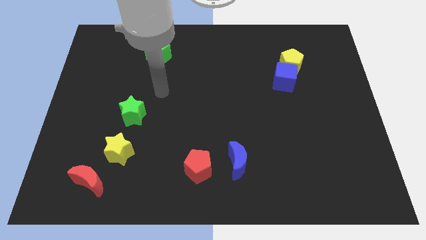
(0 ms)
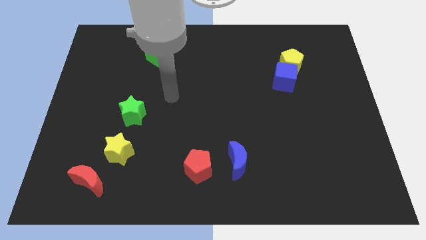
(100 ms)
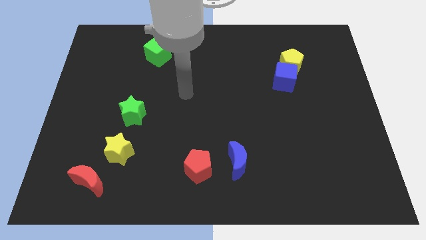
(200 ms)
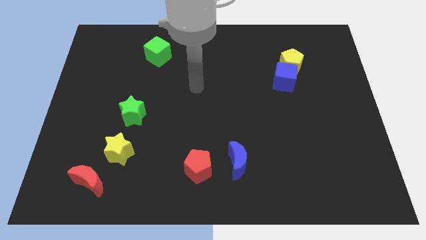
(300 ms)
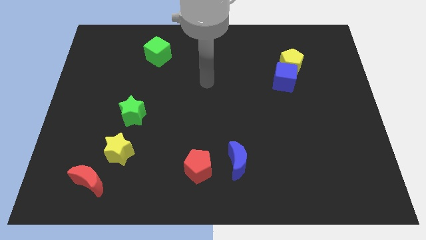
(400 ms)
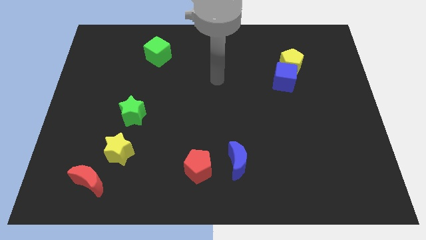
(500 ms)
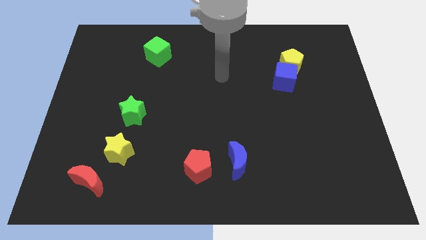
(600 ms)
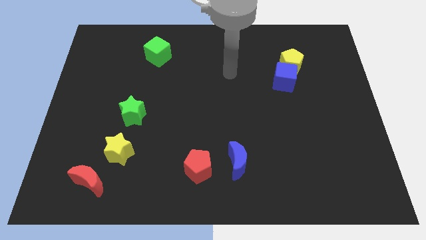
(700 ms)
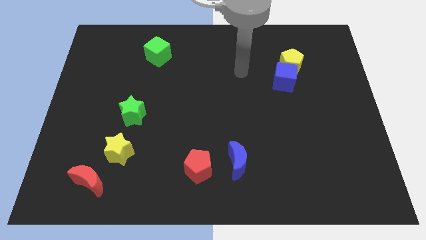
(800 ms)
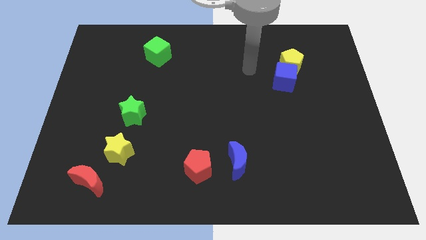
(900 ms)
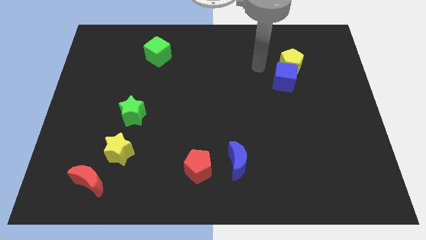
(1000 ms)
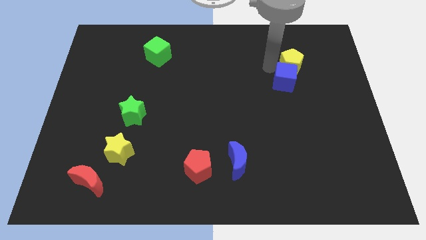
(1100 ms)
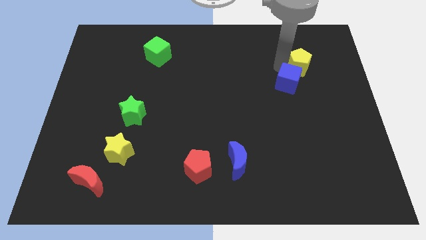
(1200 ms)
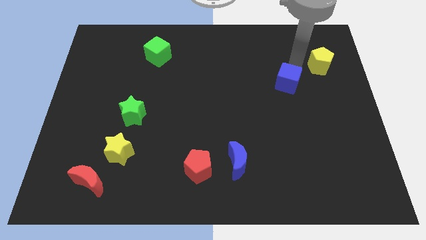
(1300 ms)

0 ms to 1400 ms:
move the blue cube away from the yellow pentagon

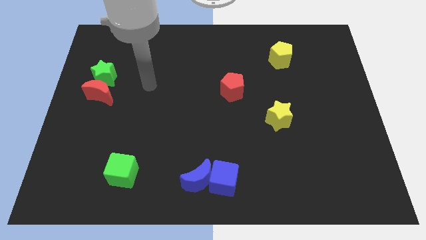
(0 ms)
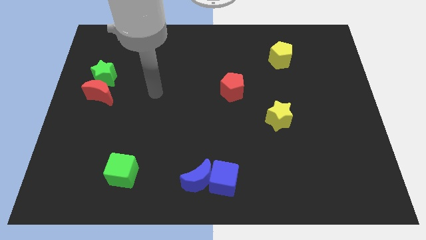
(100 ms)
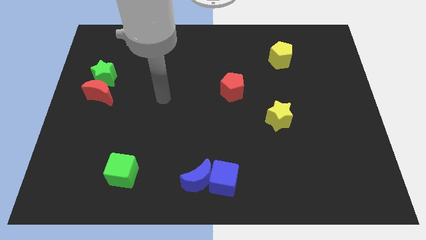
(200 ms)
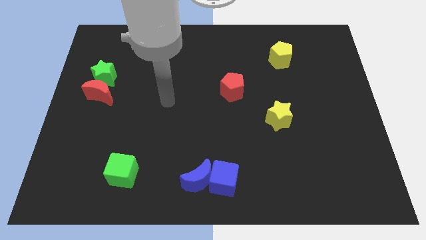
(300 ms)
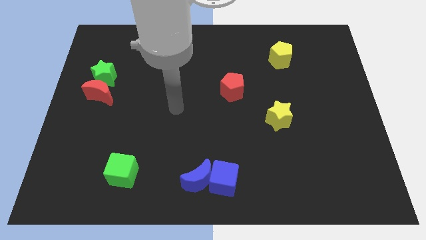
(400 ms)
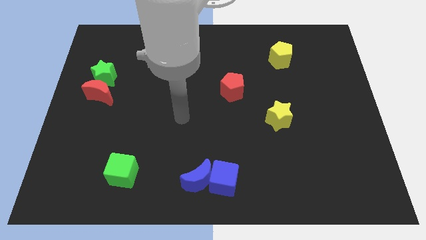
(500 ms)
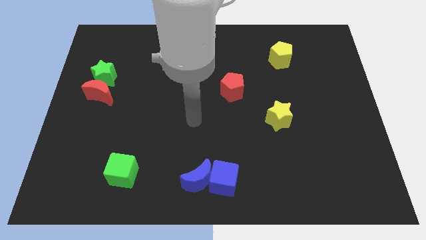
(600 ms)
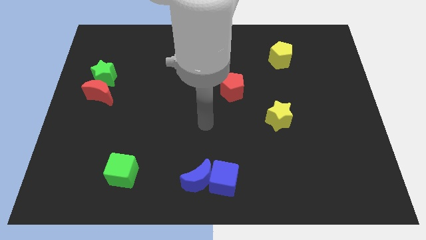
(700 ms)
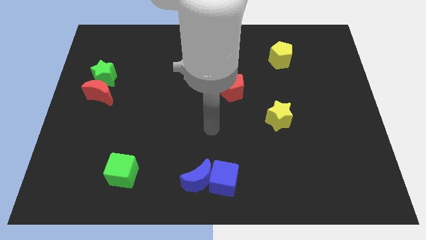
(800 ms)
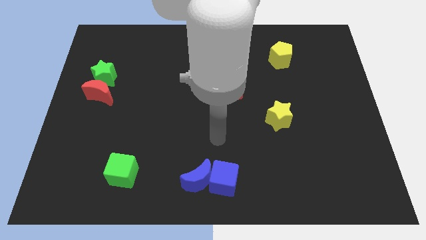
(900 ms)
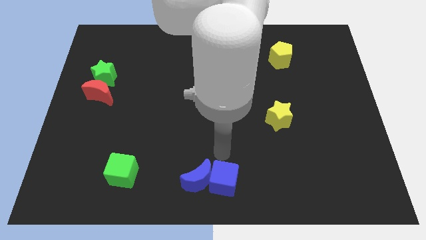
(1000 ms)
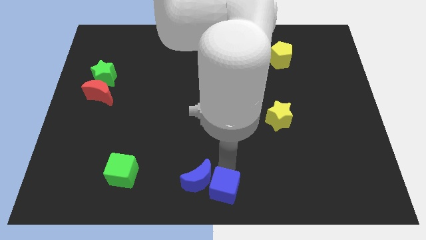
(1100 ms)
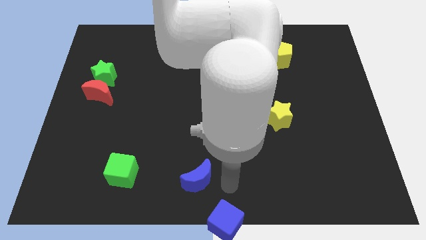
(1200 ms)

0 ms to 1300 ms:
move the blue moon away from the blue cube

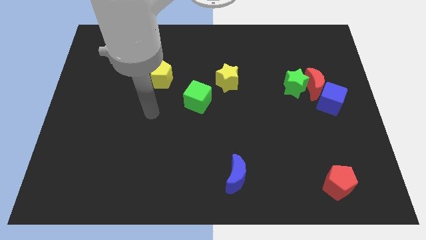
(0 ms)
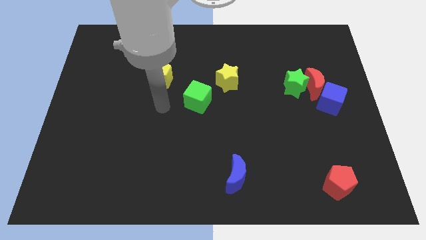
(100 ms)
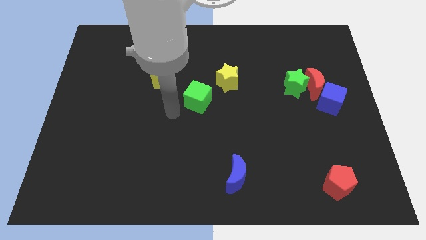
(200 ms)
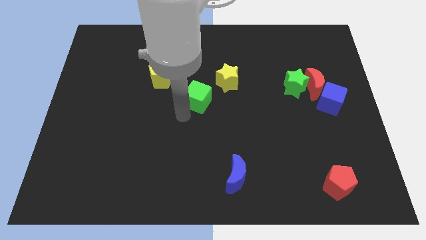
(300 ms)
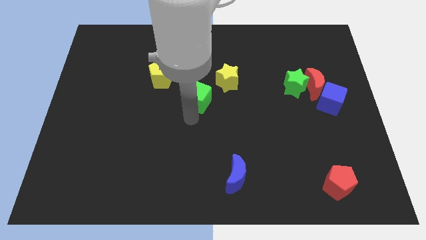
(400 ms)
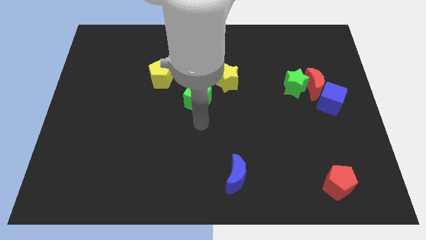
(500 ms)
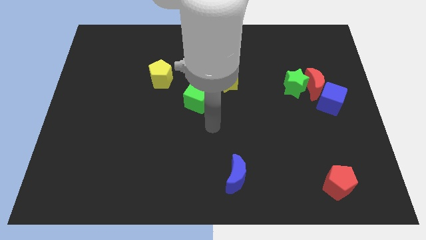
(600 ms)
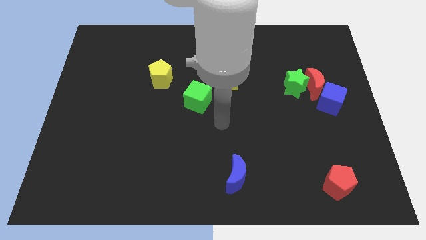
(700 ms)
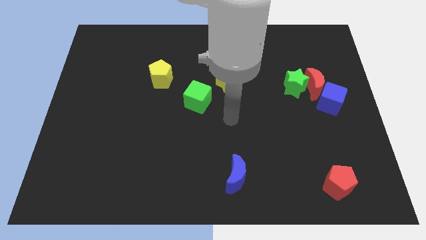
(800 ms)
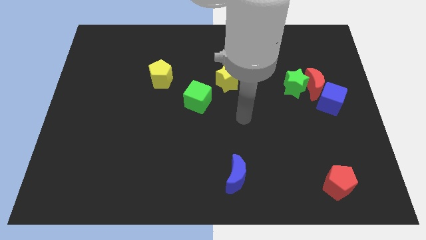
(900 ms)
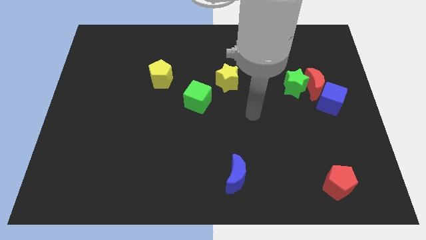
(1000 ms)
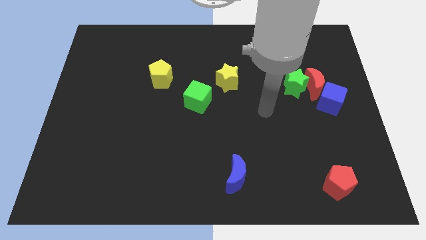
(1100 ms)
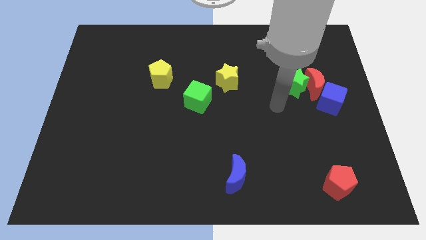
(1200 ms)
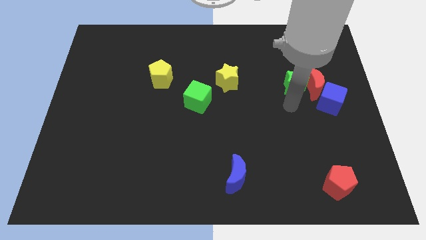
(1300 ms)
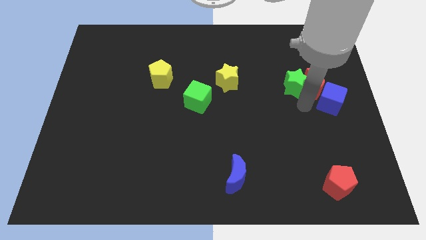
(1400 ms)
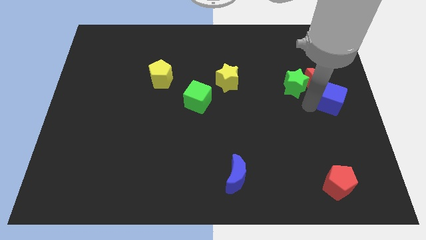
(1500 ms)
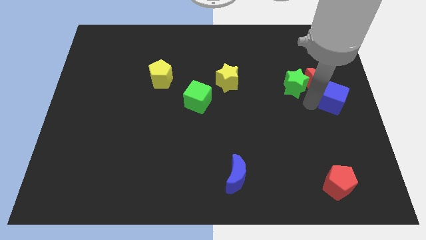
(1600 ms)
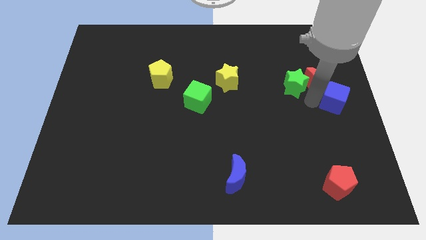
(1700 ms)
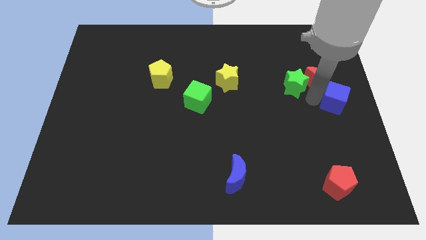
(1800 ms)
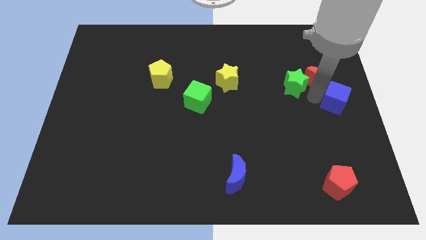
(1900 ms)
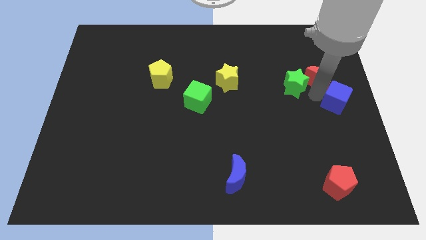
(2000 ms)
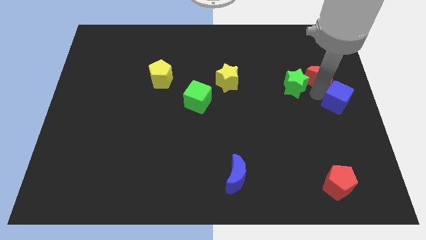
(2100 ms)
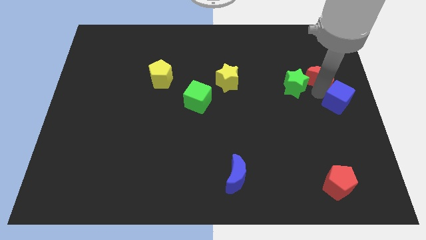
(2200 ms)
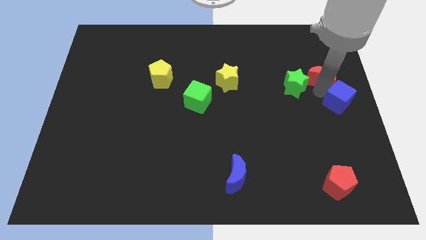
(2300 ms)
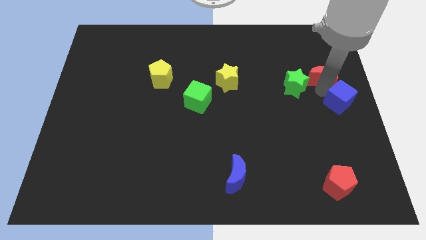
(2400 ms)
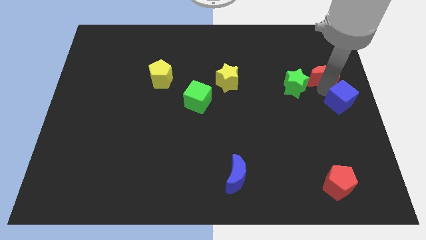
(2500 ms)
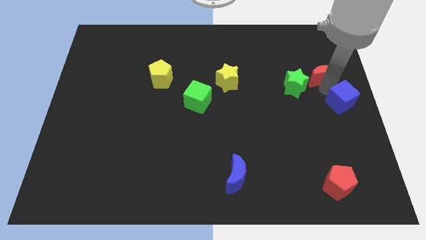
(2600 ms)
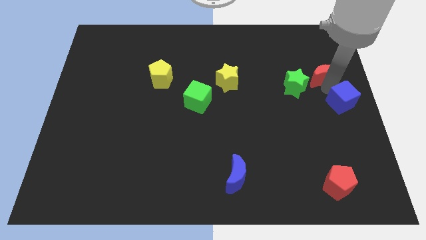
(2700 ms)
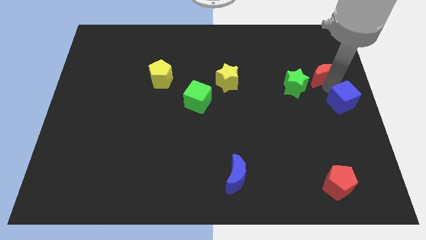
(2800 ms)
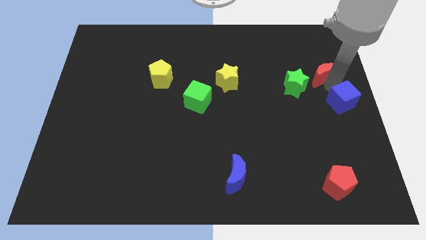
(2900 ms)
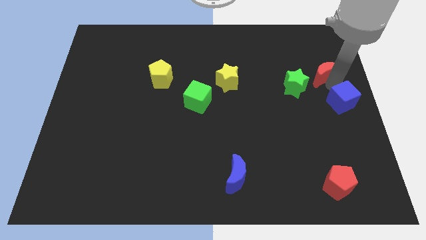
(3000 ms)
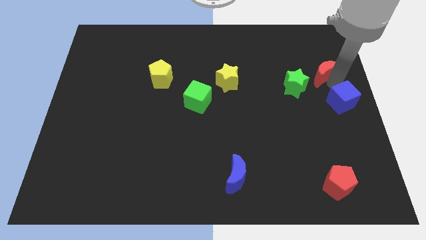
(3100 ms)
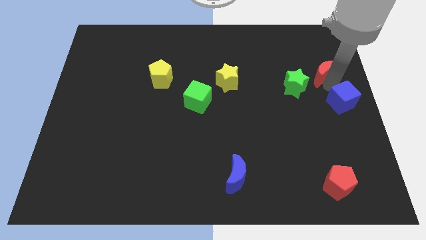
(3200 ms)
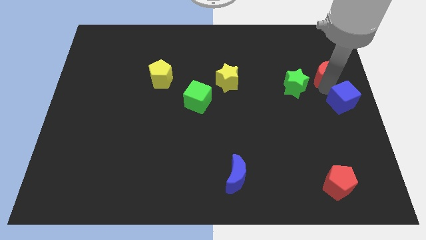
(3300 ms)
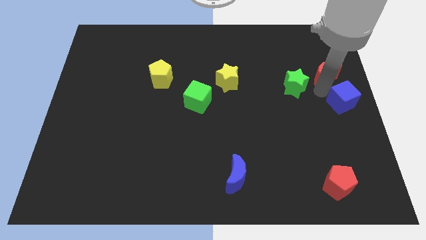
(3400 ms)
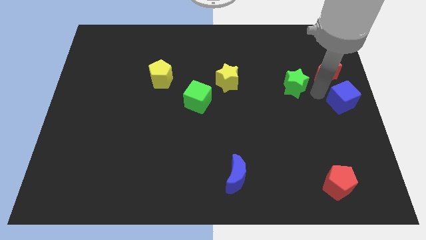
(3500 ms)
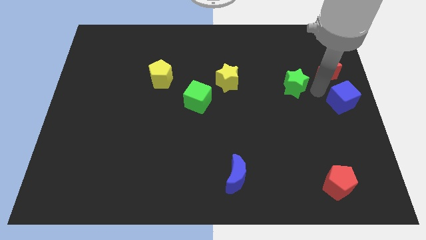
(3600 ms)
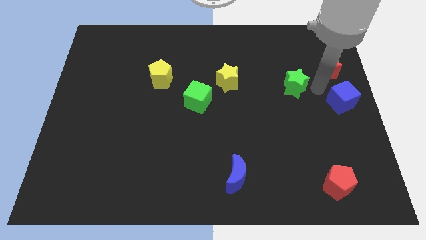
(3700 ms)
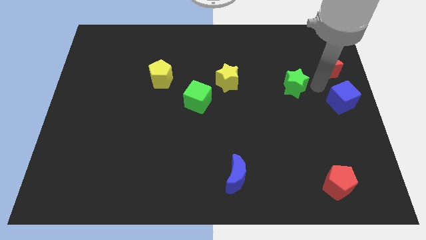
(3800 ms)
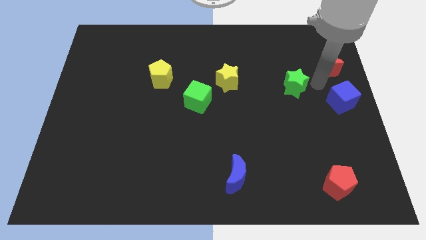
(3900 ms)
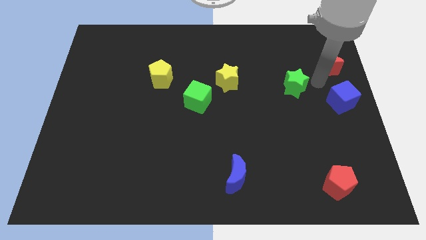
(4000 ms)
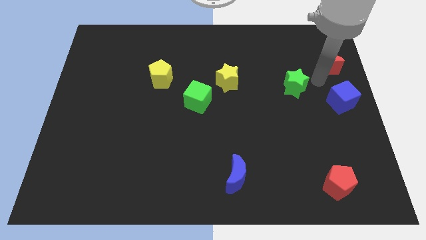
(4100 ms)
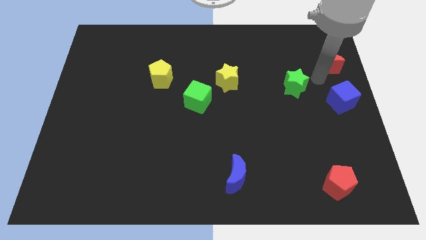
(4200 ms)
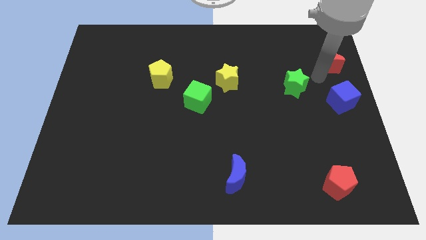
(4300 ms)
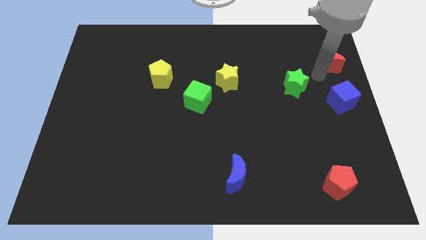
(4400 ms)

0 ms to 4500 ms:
move the red moon away from the green star and blue cube

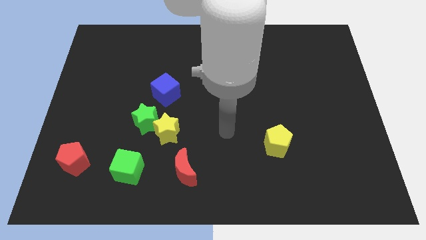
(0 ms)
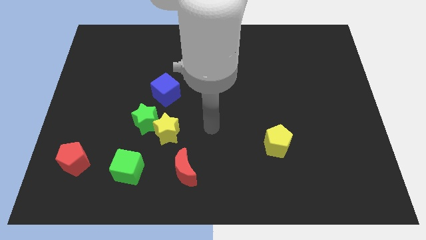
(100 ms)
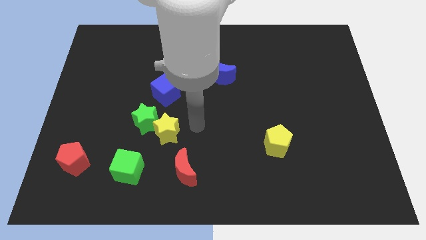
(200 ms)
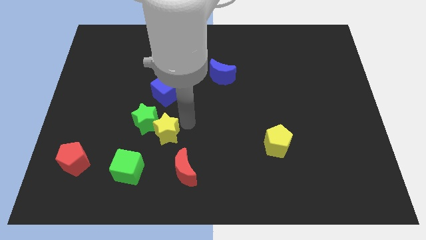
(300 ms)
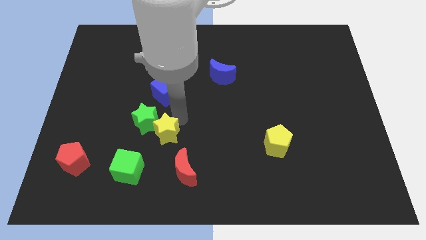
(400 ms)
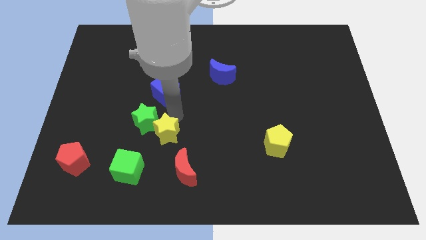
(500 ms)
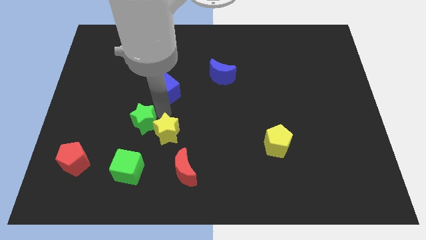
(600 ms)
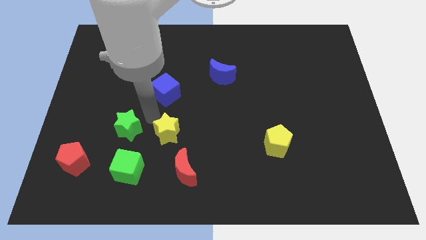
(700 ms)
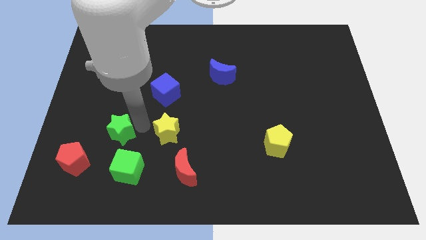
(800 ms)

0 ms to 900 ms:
move the yellow star away from the green star

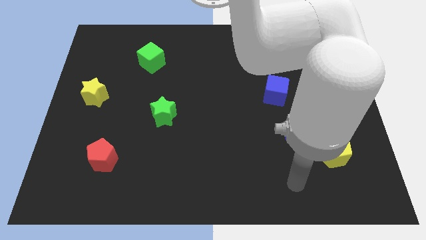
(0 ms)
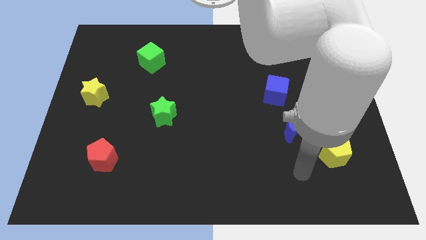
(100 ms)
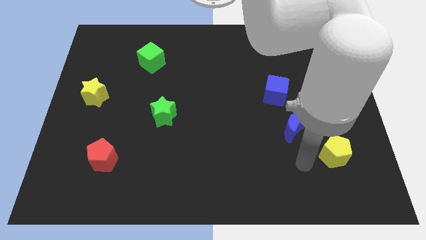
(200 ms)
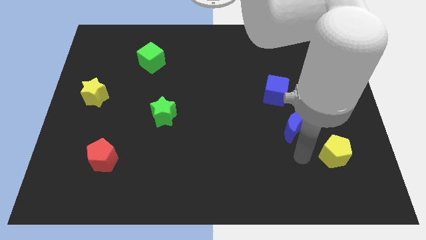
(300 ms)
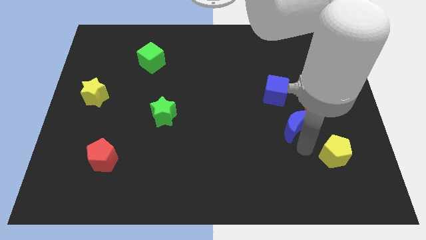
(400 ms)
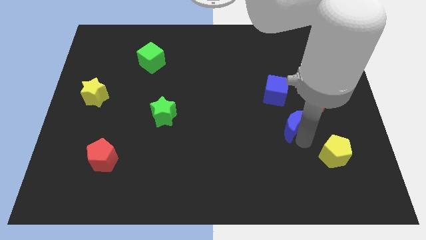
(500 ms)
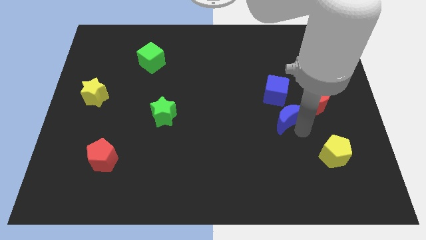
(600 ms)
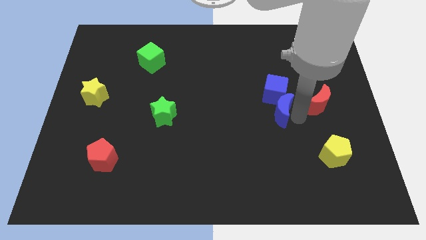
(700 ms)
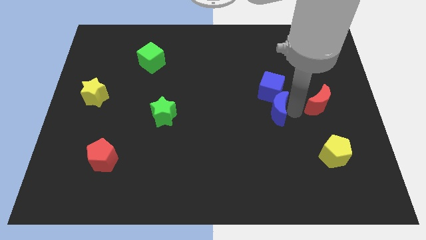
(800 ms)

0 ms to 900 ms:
separate the red moon from the blue moon

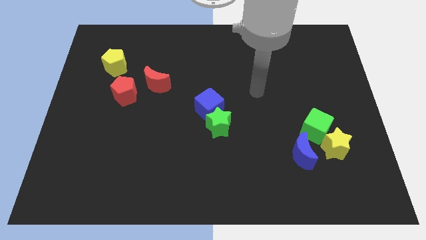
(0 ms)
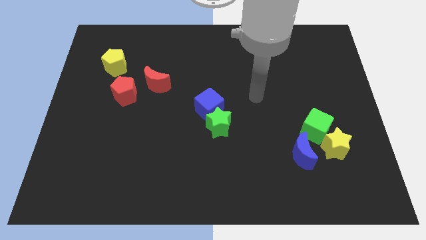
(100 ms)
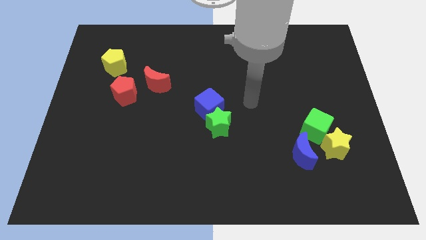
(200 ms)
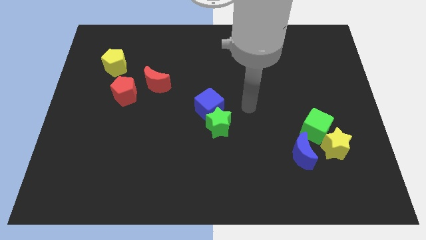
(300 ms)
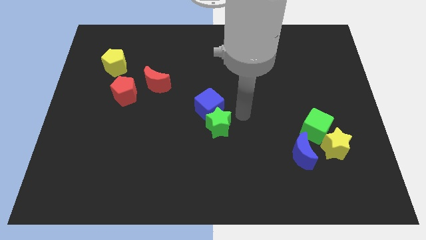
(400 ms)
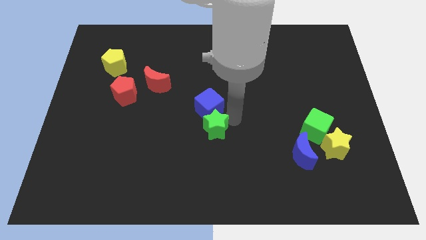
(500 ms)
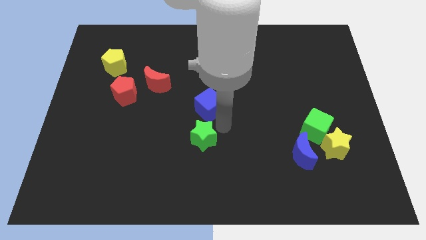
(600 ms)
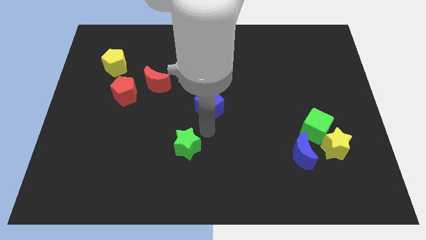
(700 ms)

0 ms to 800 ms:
separate the blue cube from the green star
